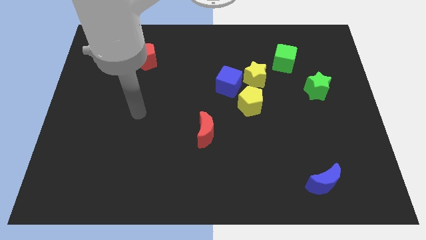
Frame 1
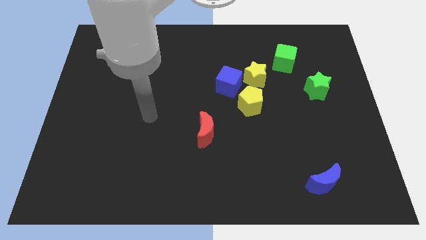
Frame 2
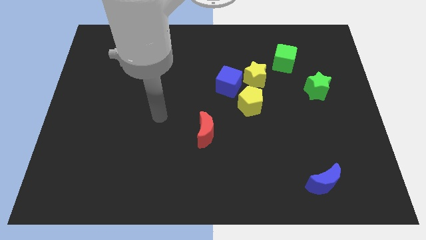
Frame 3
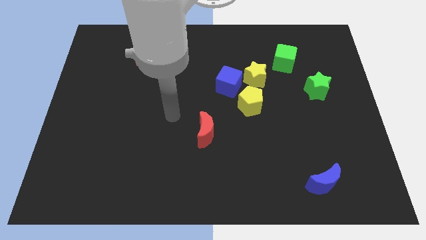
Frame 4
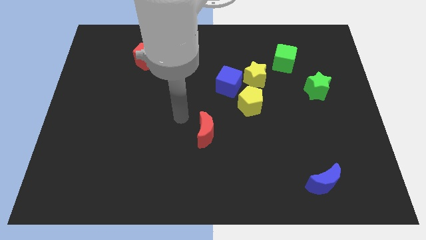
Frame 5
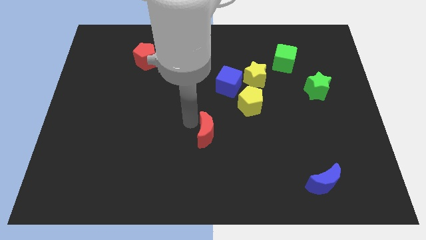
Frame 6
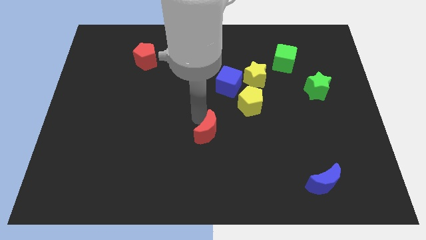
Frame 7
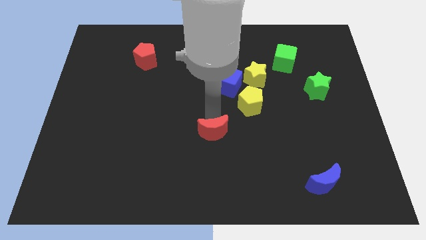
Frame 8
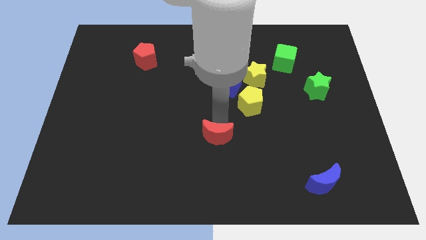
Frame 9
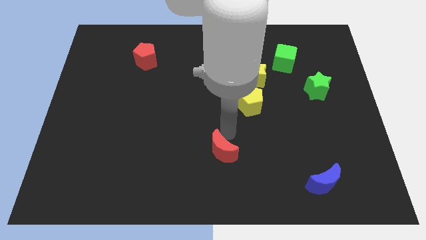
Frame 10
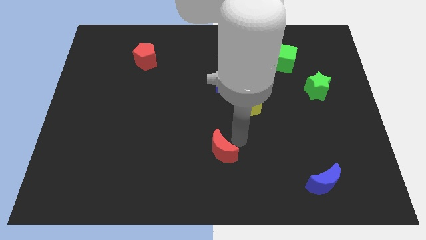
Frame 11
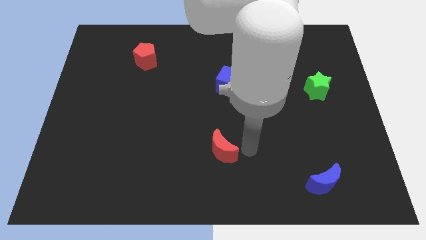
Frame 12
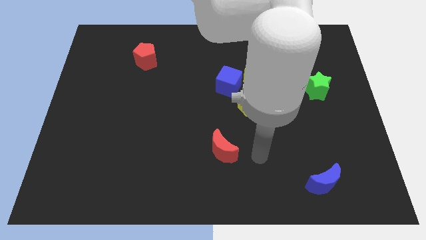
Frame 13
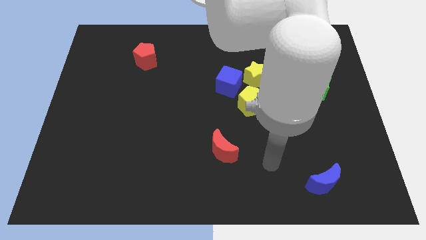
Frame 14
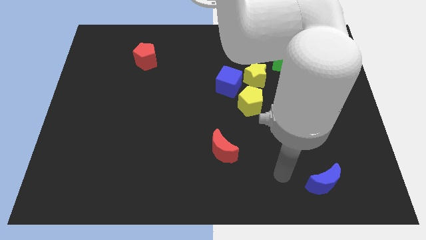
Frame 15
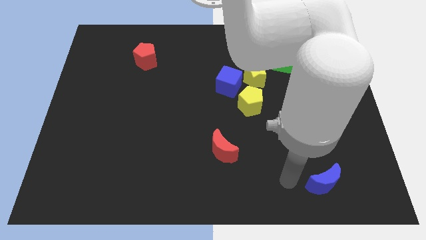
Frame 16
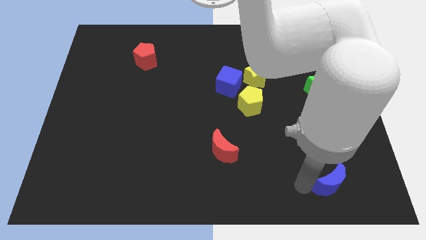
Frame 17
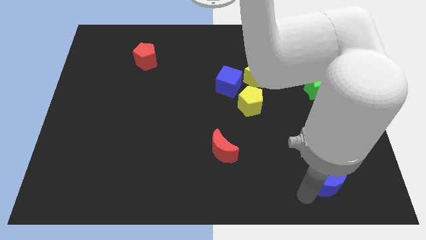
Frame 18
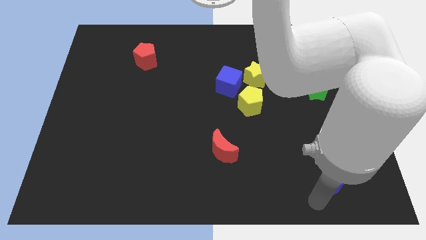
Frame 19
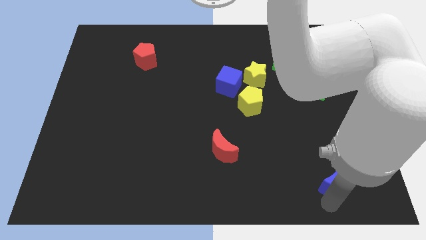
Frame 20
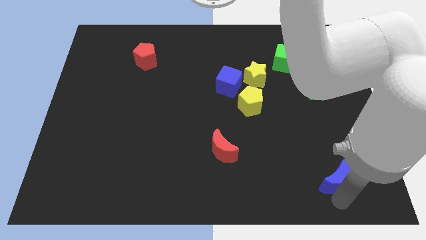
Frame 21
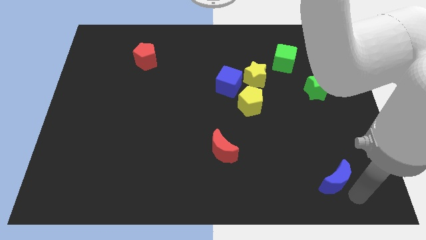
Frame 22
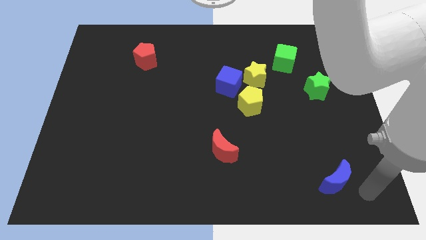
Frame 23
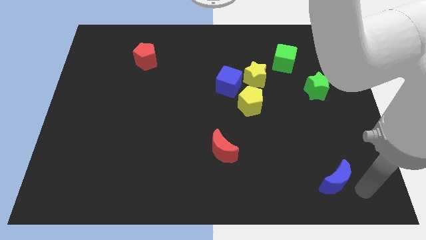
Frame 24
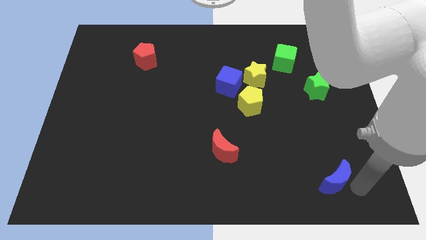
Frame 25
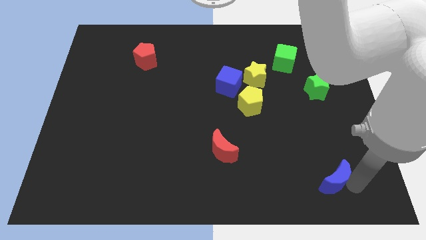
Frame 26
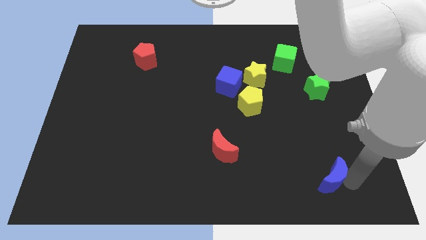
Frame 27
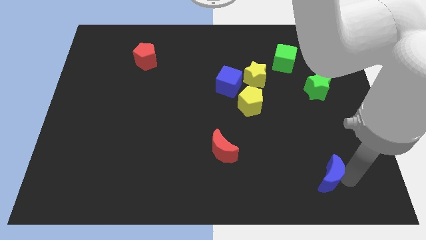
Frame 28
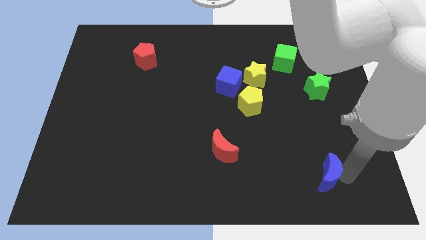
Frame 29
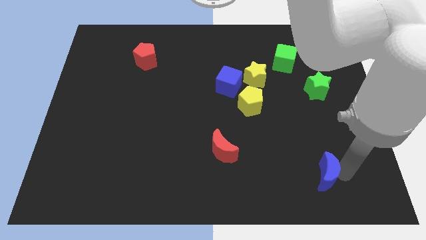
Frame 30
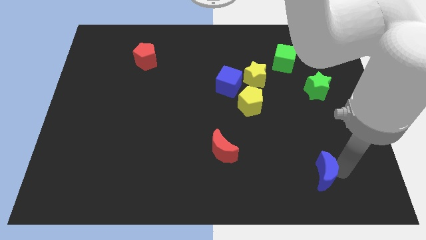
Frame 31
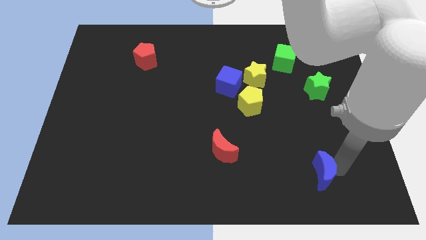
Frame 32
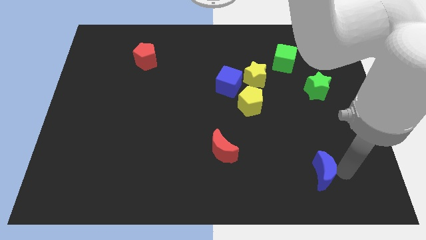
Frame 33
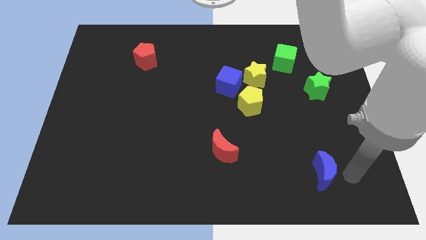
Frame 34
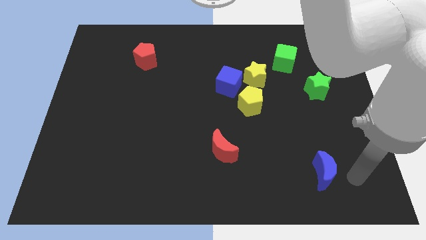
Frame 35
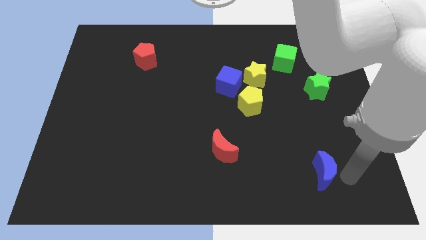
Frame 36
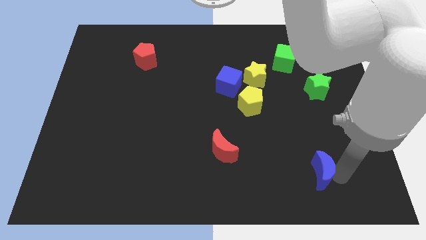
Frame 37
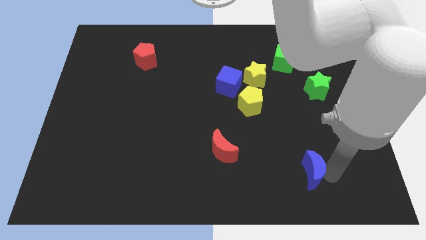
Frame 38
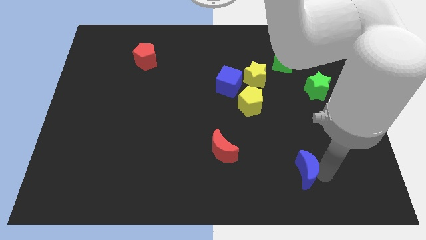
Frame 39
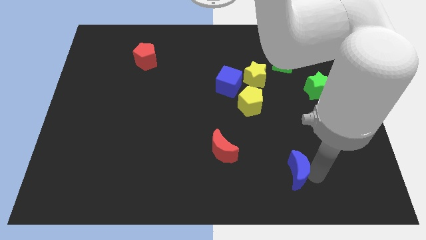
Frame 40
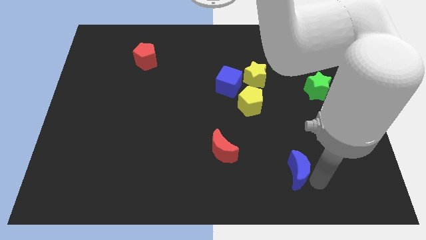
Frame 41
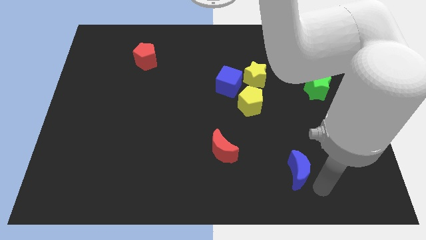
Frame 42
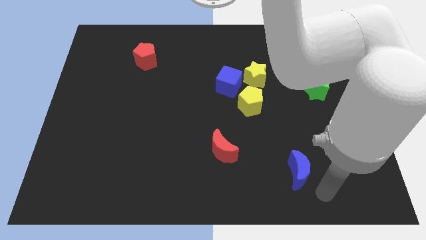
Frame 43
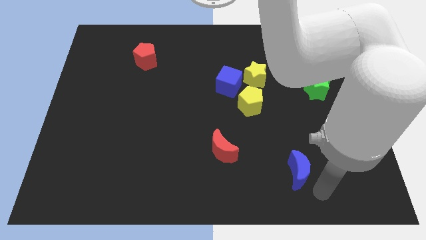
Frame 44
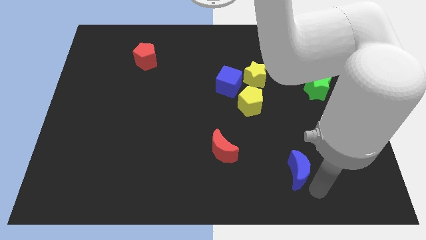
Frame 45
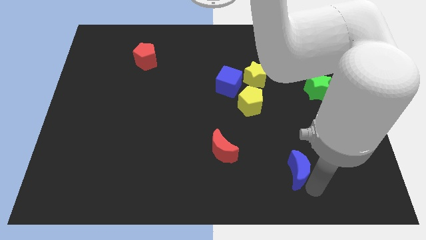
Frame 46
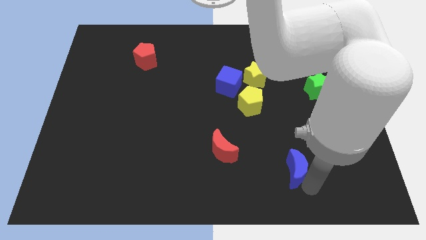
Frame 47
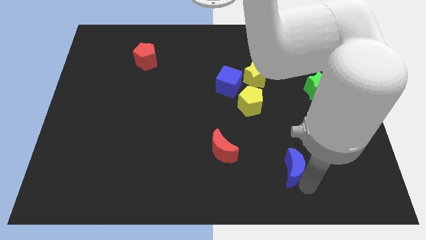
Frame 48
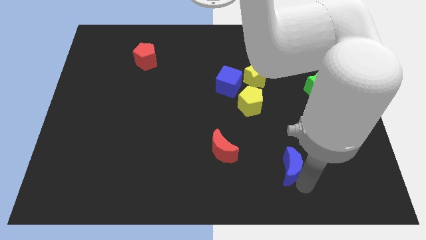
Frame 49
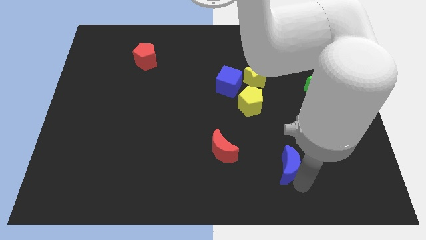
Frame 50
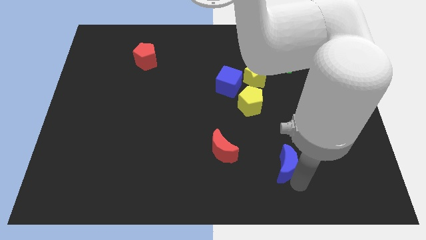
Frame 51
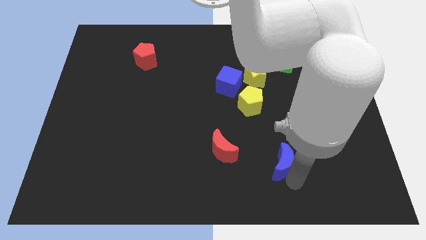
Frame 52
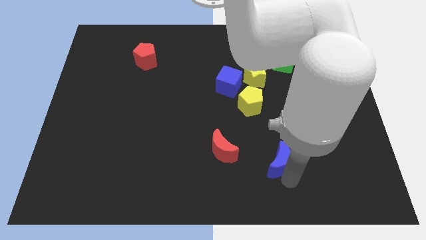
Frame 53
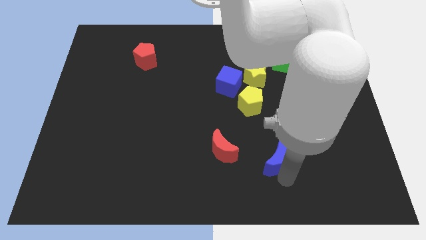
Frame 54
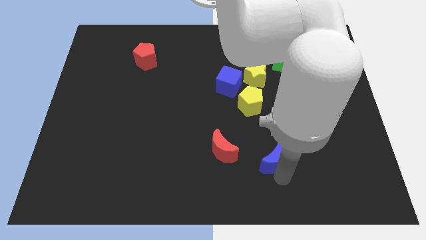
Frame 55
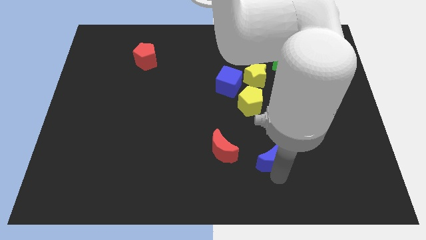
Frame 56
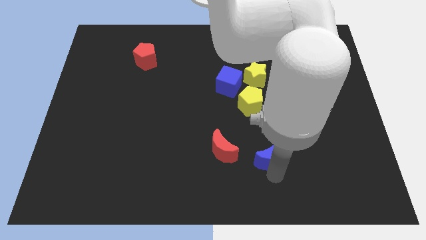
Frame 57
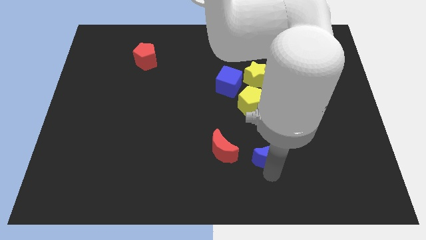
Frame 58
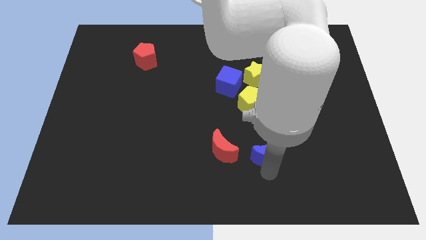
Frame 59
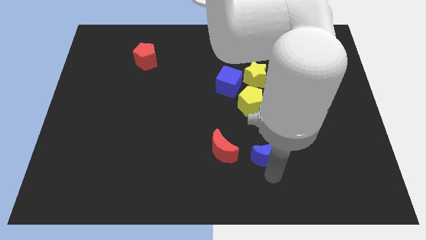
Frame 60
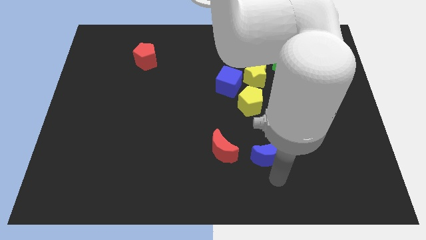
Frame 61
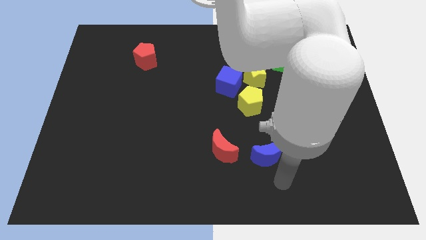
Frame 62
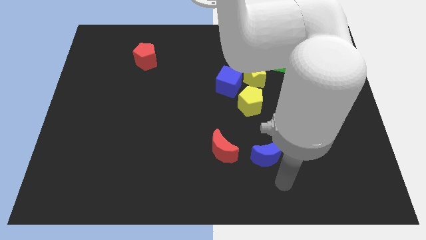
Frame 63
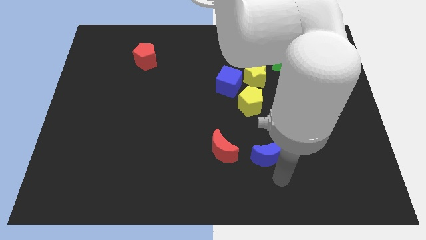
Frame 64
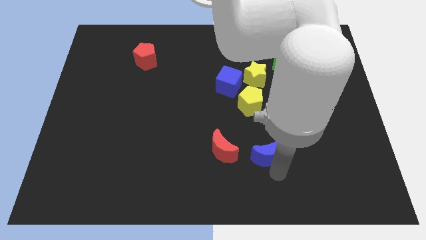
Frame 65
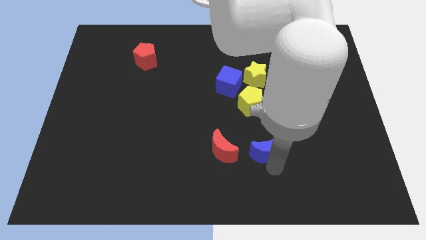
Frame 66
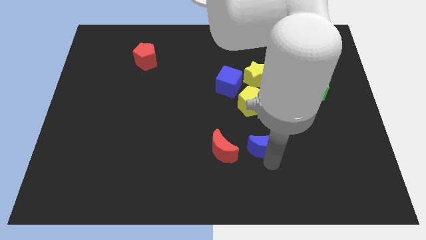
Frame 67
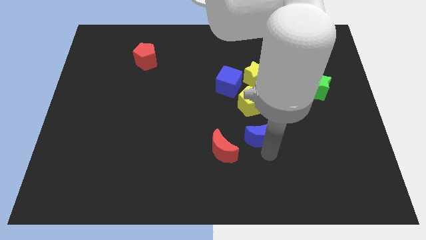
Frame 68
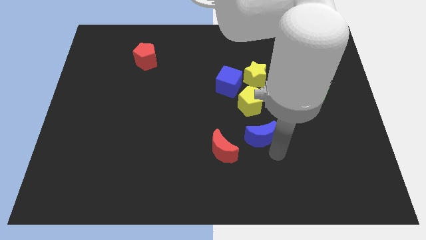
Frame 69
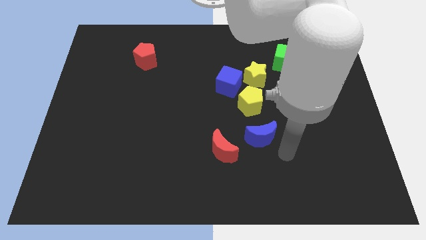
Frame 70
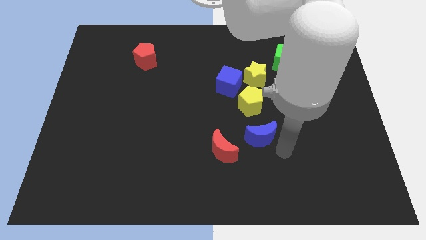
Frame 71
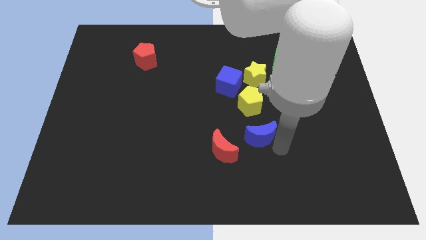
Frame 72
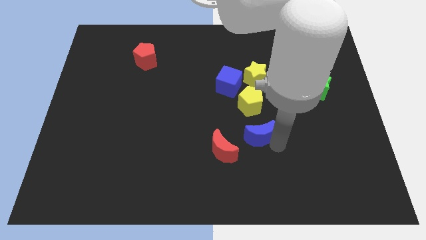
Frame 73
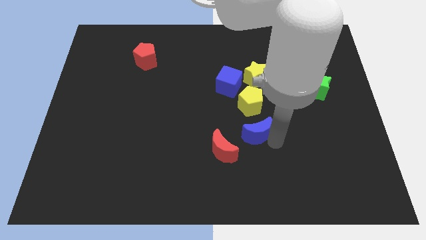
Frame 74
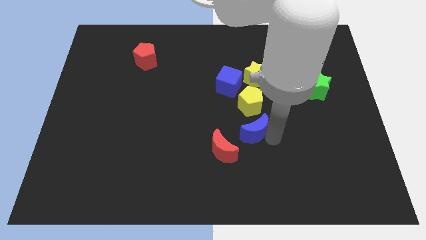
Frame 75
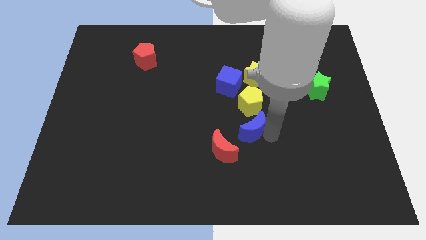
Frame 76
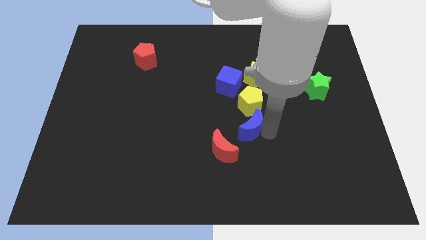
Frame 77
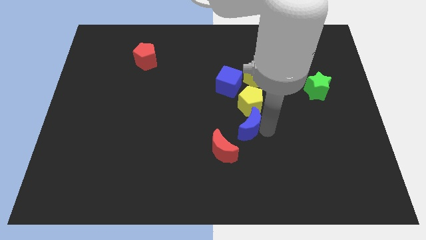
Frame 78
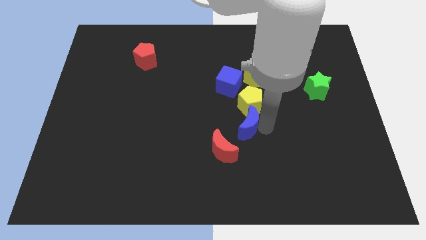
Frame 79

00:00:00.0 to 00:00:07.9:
push the blue moon upwards and left
